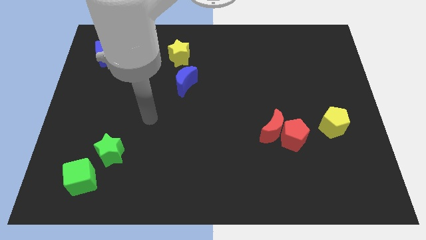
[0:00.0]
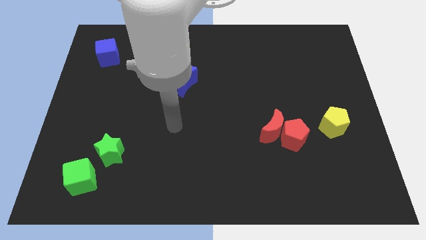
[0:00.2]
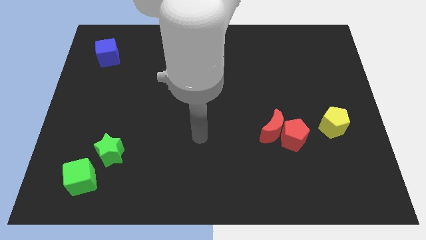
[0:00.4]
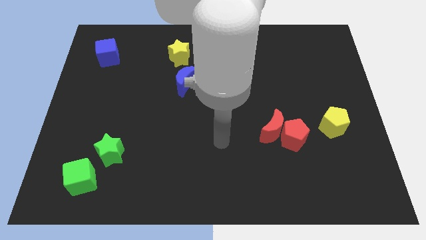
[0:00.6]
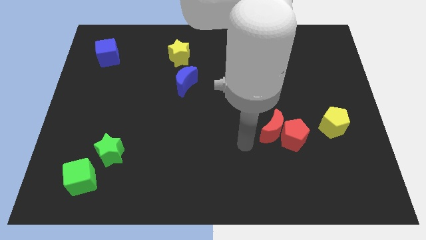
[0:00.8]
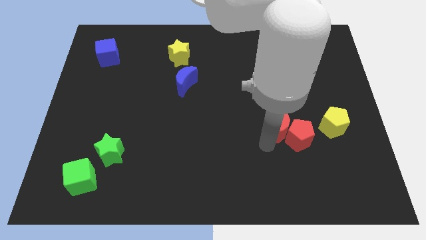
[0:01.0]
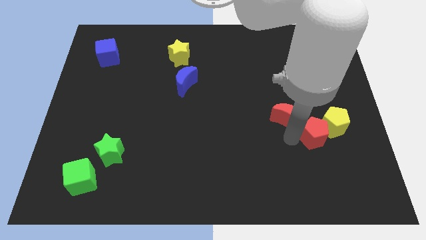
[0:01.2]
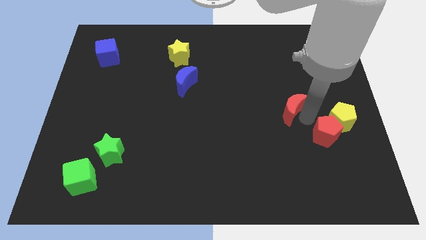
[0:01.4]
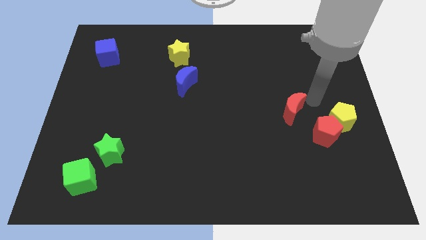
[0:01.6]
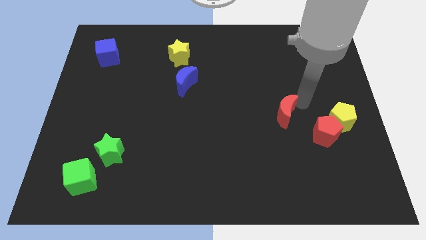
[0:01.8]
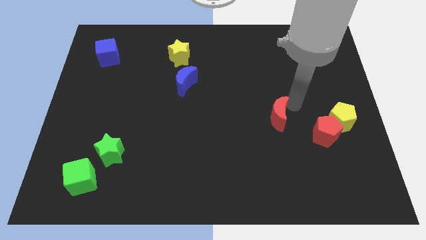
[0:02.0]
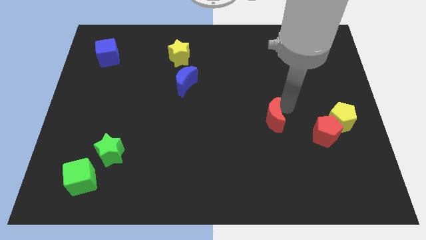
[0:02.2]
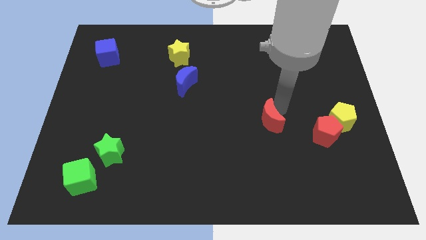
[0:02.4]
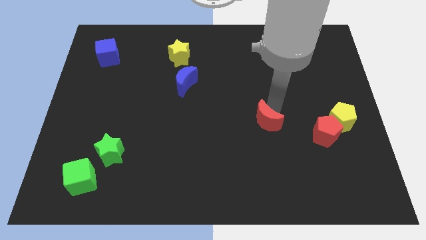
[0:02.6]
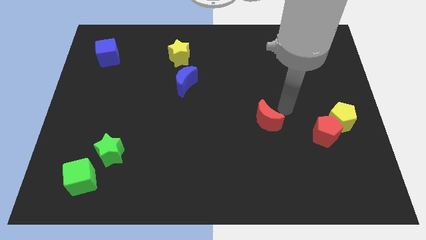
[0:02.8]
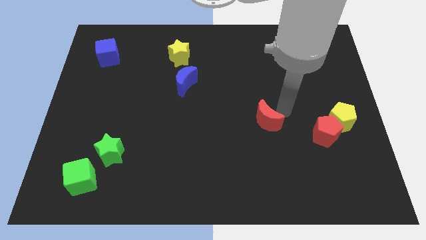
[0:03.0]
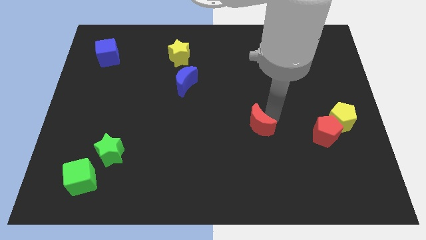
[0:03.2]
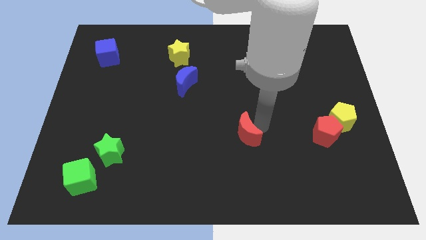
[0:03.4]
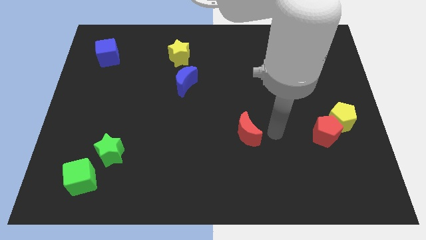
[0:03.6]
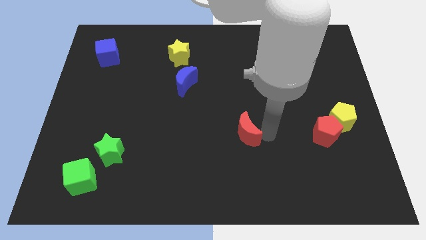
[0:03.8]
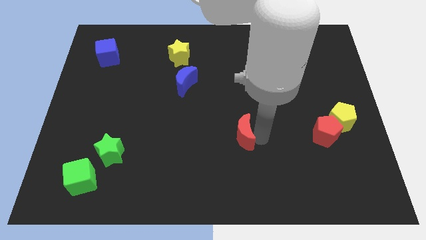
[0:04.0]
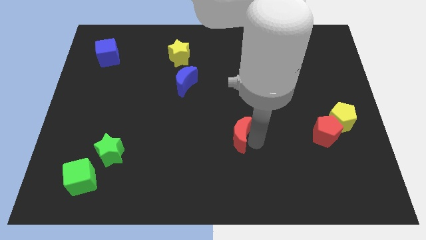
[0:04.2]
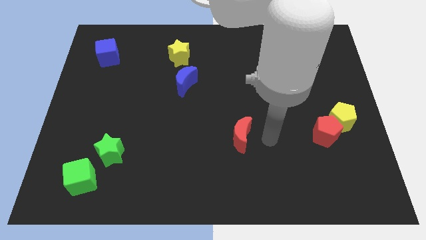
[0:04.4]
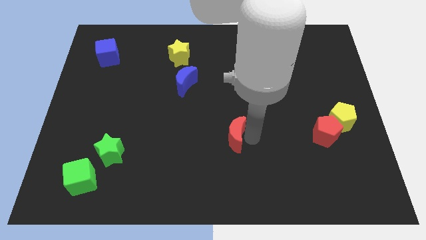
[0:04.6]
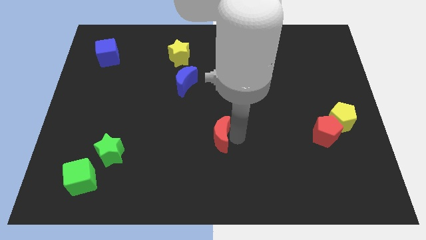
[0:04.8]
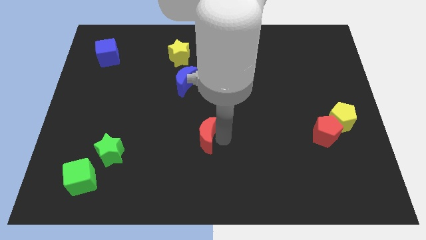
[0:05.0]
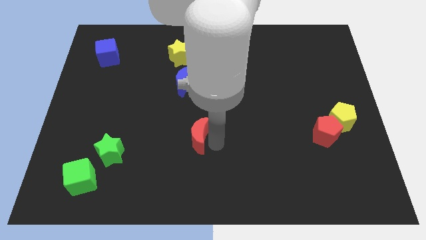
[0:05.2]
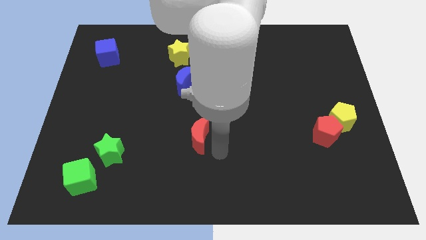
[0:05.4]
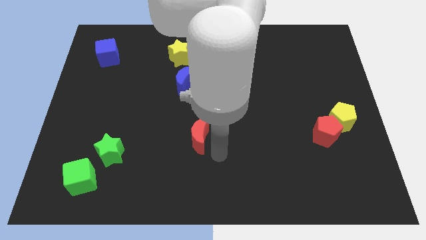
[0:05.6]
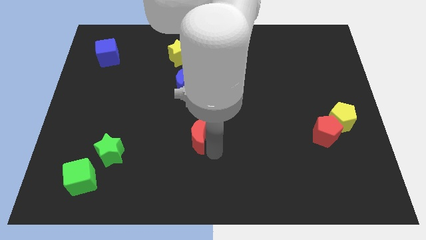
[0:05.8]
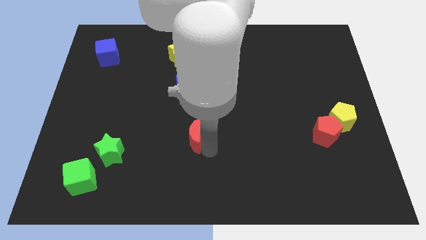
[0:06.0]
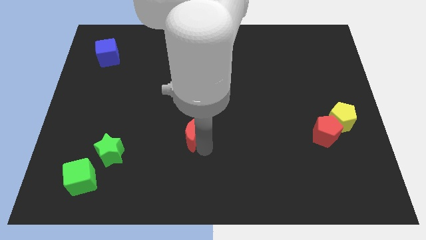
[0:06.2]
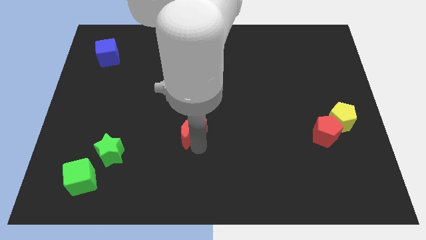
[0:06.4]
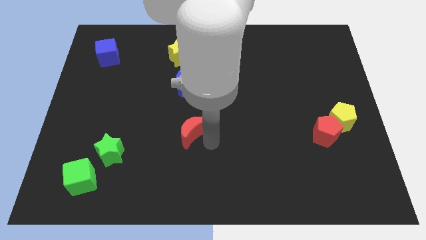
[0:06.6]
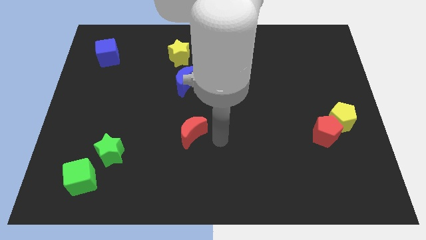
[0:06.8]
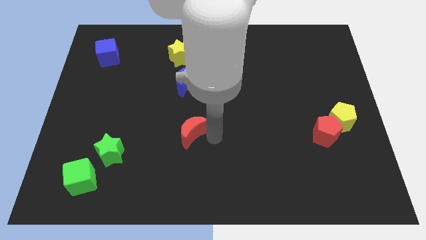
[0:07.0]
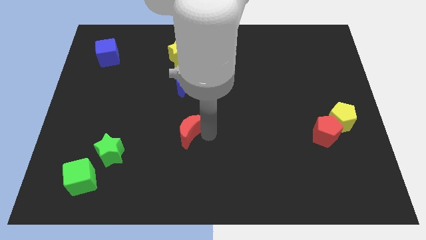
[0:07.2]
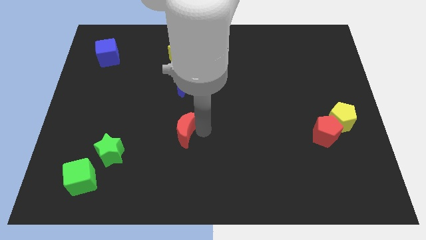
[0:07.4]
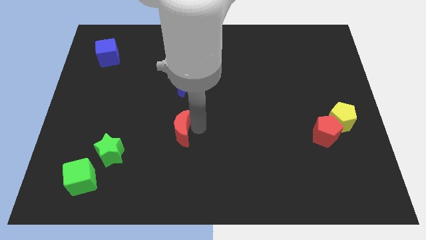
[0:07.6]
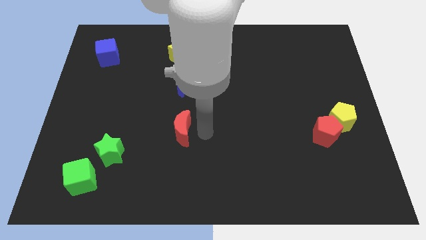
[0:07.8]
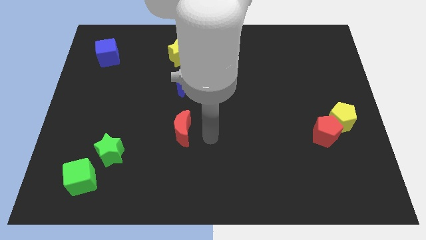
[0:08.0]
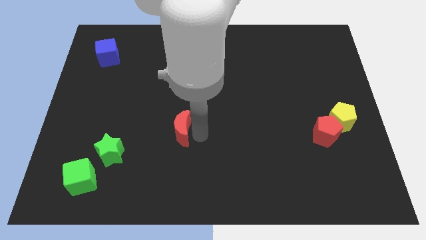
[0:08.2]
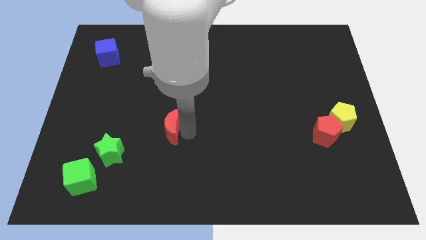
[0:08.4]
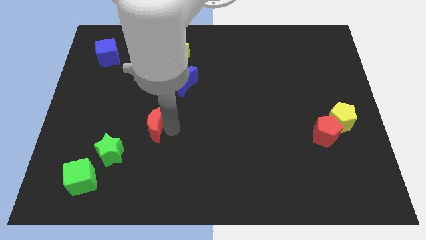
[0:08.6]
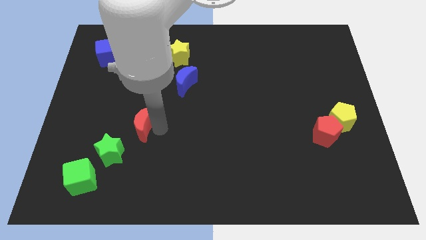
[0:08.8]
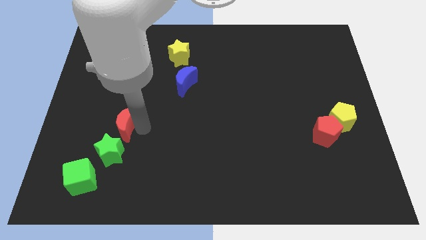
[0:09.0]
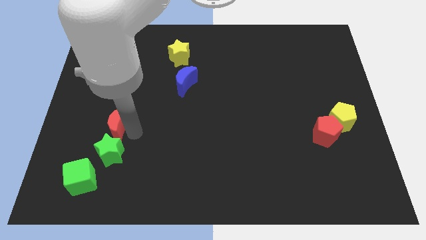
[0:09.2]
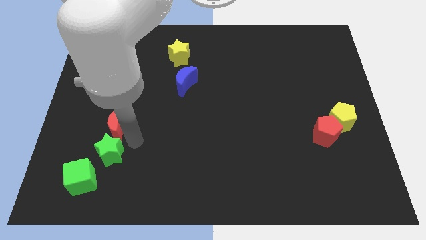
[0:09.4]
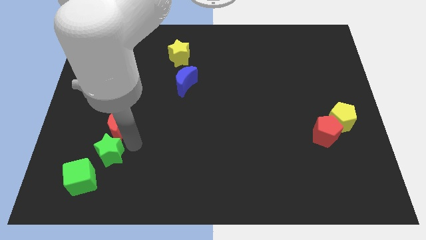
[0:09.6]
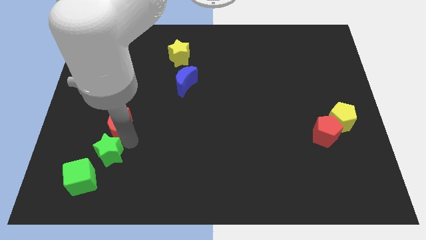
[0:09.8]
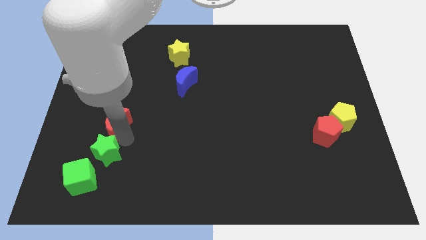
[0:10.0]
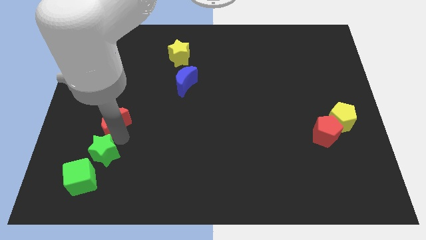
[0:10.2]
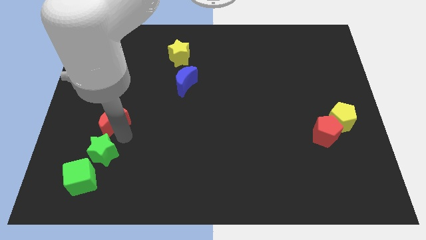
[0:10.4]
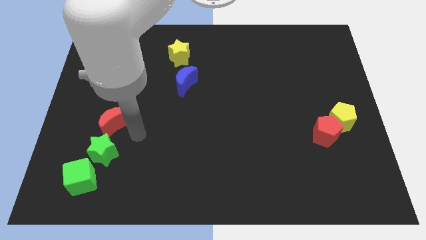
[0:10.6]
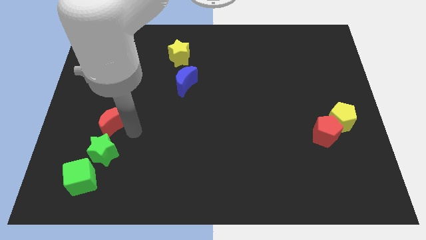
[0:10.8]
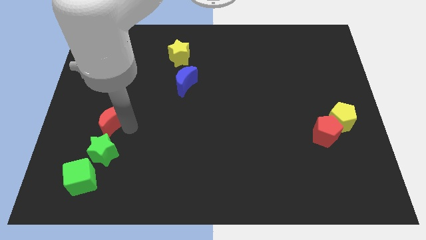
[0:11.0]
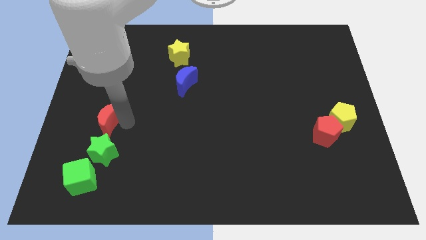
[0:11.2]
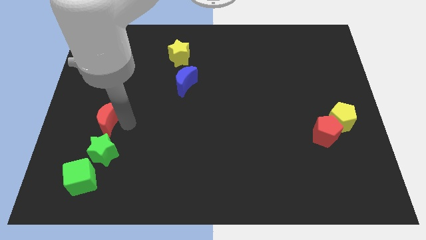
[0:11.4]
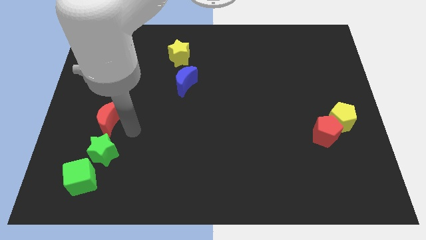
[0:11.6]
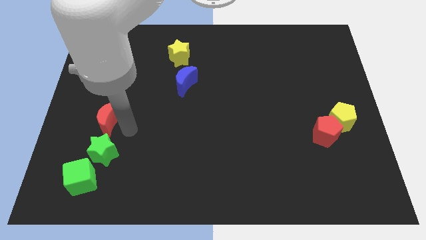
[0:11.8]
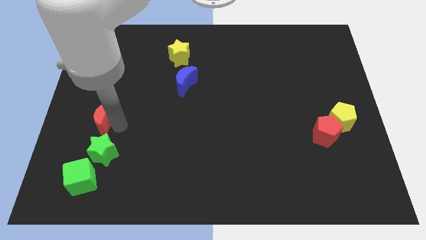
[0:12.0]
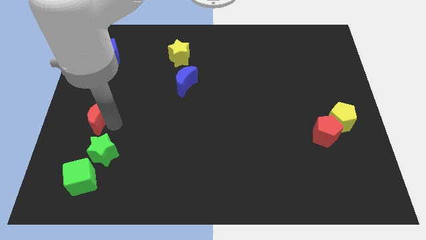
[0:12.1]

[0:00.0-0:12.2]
push the red moon to the left side of the board
